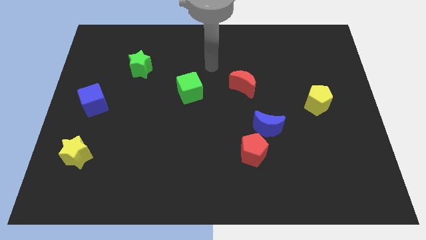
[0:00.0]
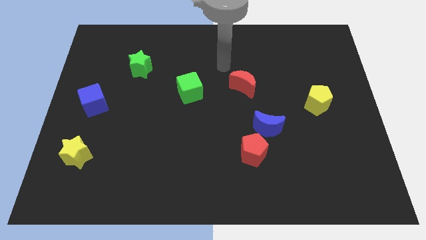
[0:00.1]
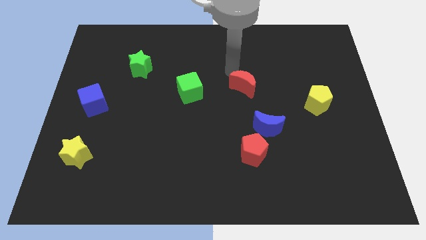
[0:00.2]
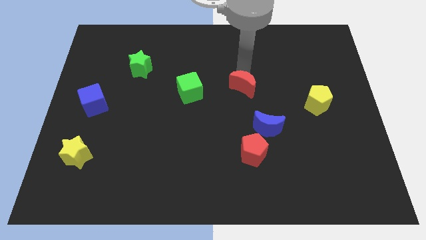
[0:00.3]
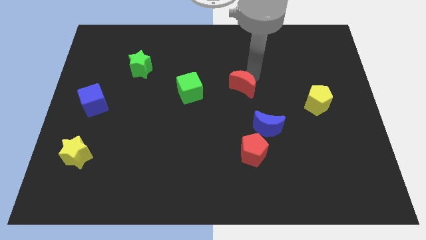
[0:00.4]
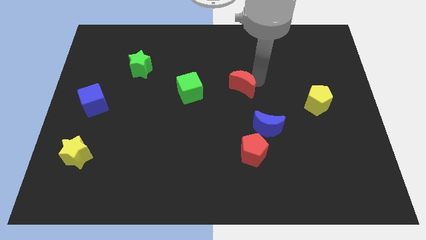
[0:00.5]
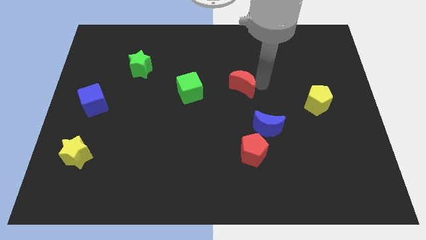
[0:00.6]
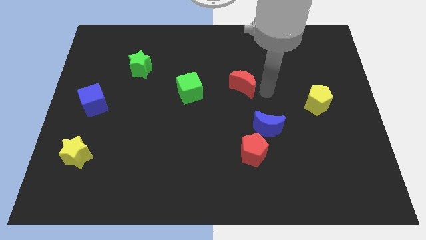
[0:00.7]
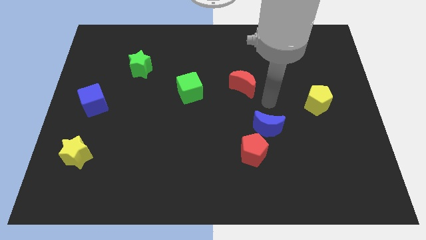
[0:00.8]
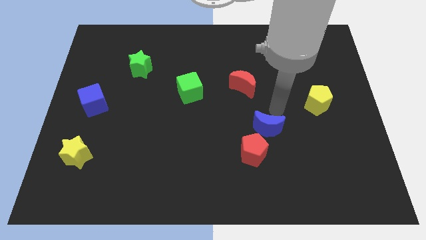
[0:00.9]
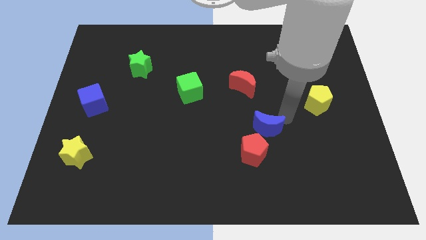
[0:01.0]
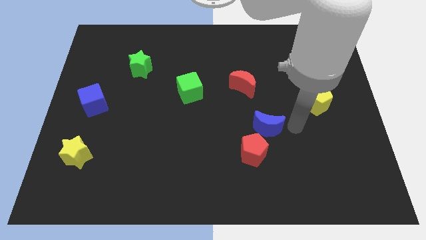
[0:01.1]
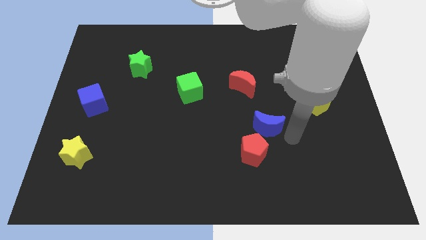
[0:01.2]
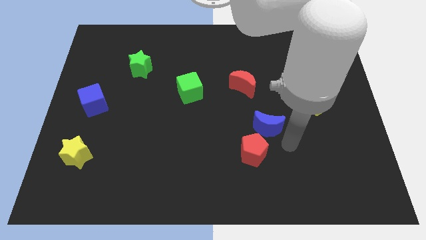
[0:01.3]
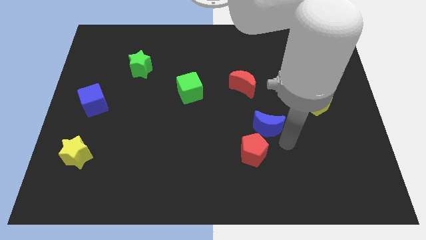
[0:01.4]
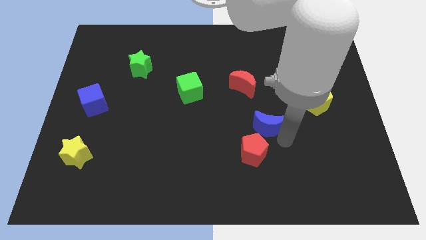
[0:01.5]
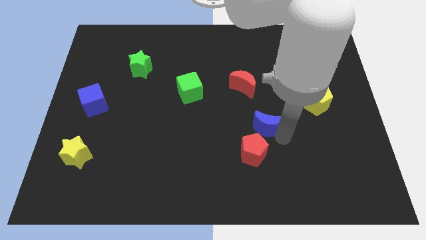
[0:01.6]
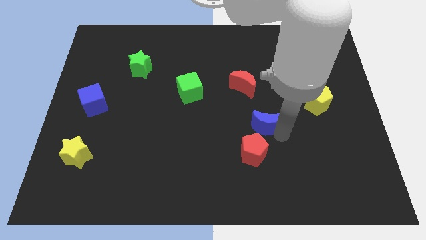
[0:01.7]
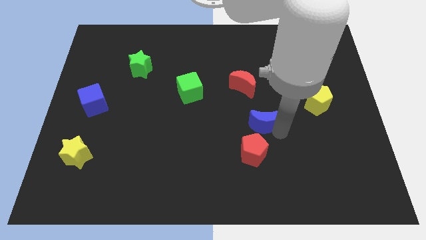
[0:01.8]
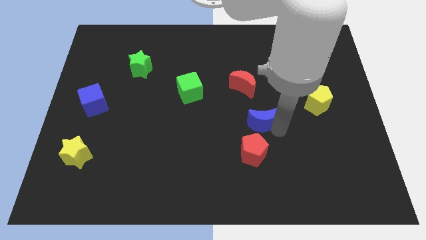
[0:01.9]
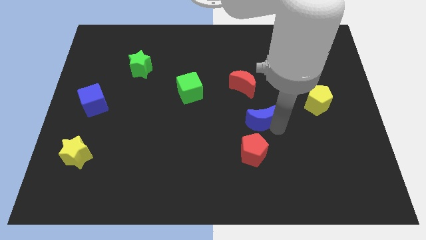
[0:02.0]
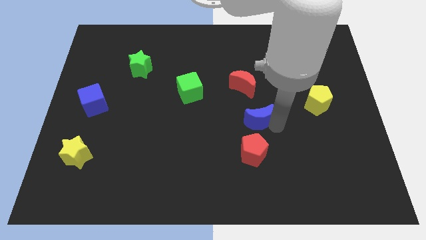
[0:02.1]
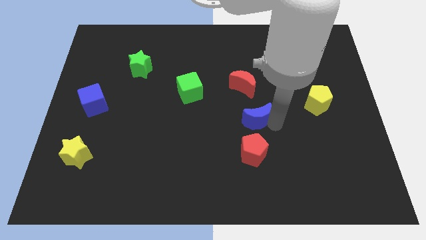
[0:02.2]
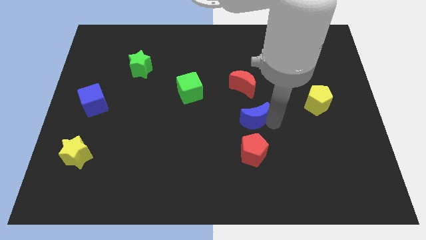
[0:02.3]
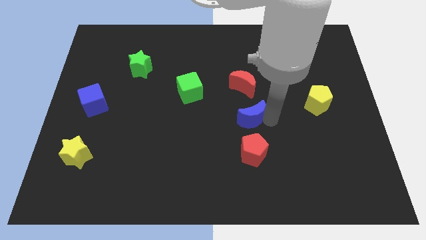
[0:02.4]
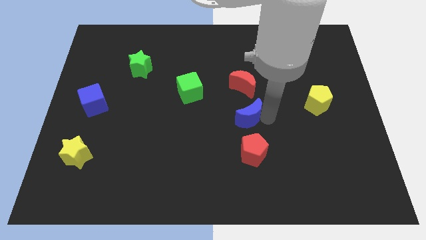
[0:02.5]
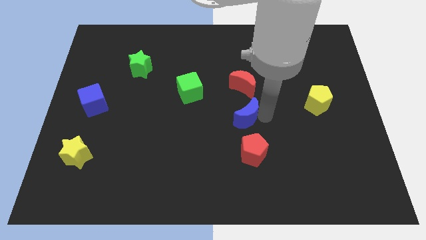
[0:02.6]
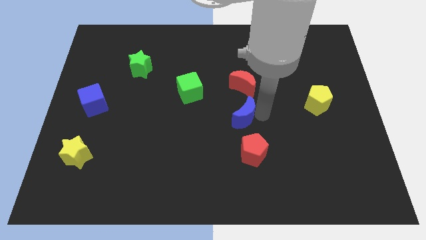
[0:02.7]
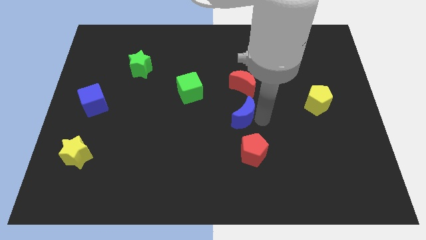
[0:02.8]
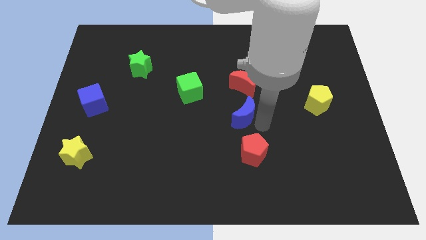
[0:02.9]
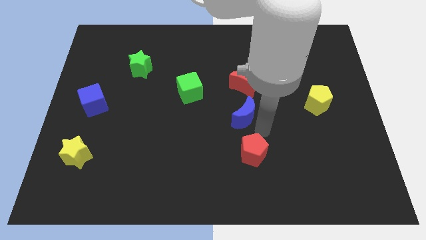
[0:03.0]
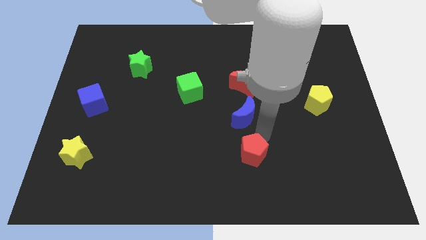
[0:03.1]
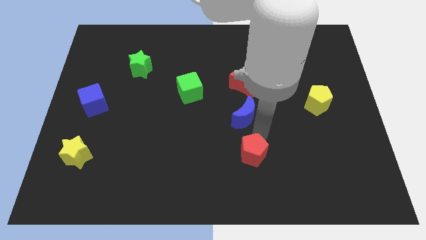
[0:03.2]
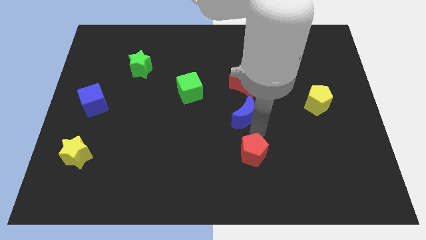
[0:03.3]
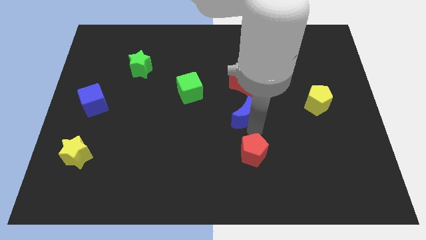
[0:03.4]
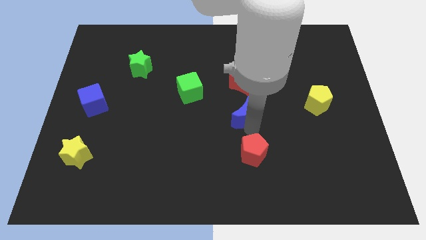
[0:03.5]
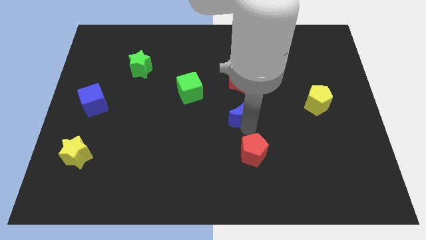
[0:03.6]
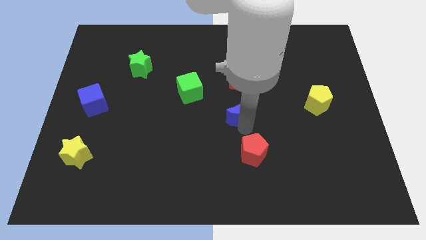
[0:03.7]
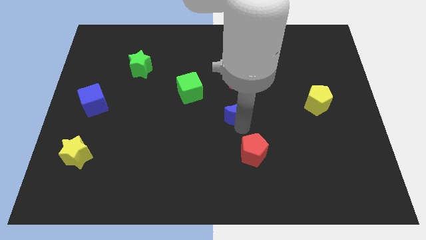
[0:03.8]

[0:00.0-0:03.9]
slightly move the blue moon upwards and left

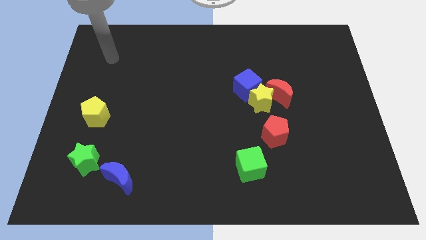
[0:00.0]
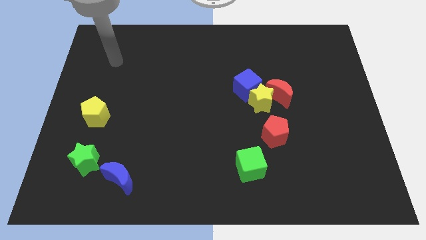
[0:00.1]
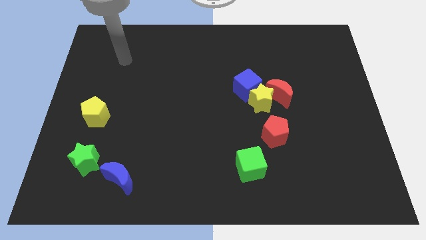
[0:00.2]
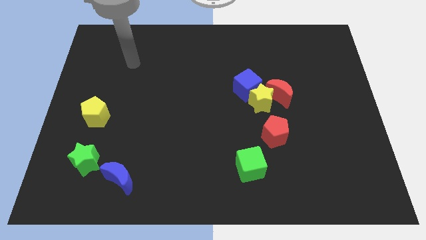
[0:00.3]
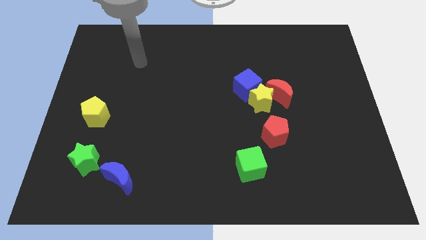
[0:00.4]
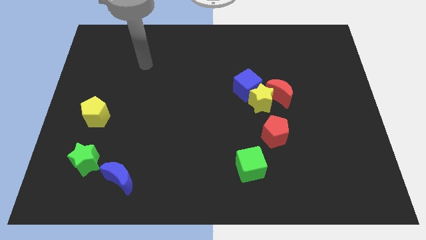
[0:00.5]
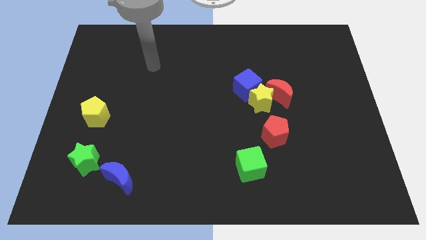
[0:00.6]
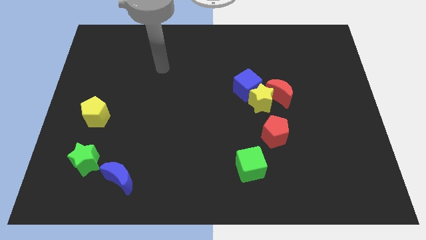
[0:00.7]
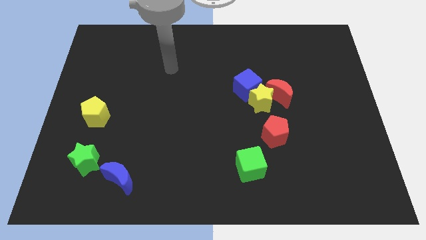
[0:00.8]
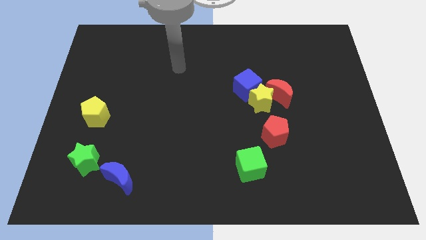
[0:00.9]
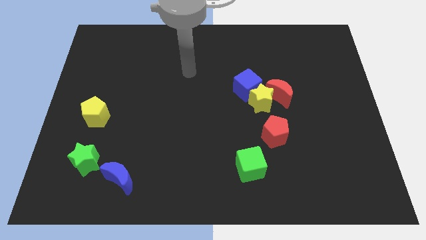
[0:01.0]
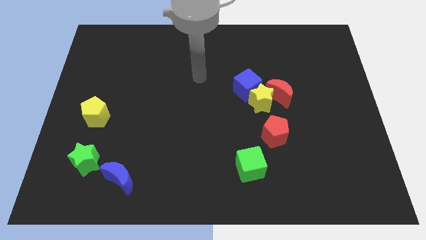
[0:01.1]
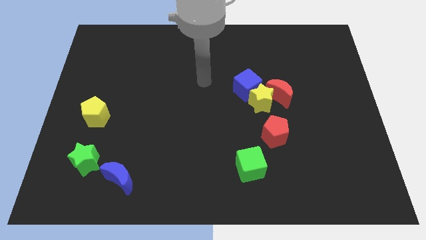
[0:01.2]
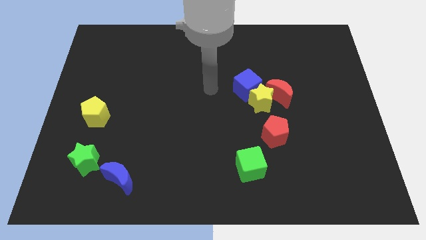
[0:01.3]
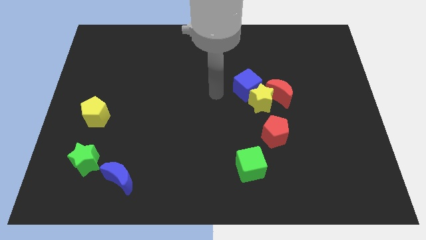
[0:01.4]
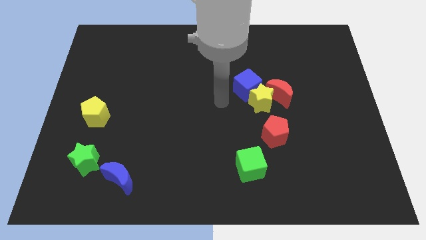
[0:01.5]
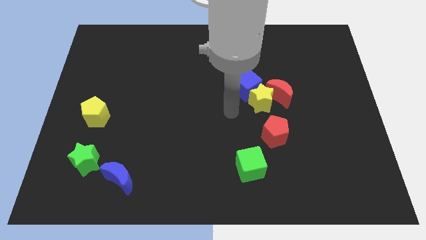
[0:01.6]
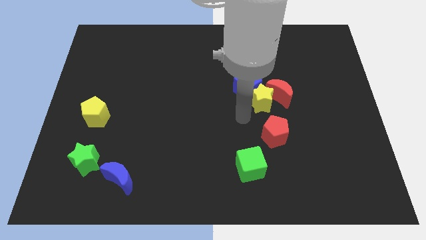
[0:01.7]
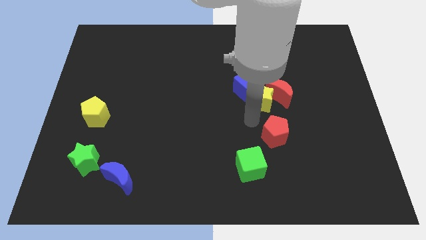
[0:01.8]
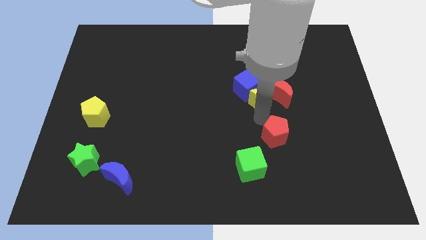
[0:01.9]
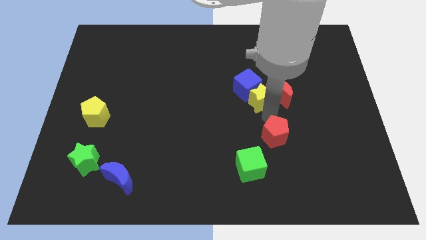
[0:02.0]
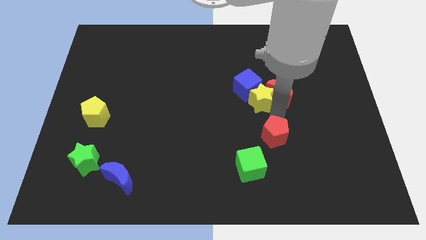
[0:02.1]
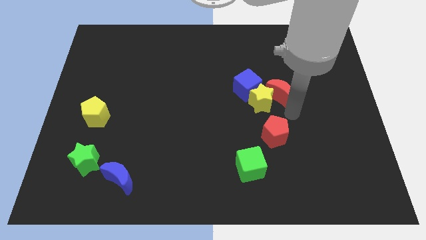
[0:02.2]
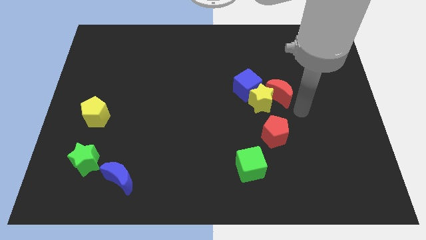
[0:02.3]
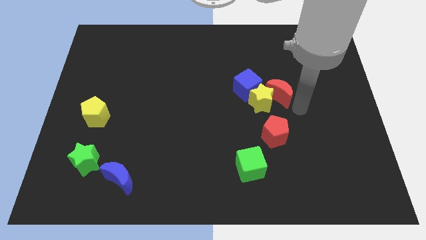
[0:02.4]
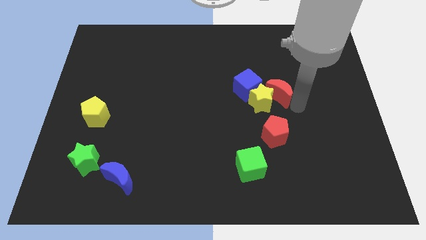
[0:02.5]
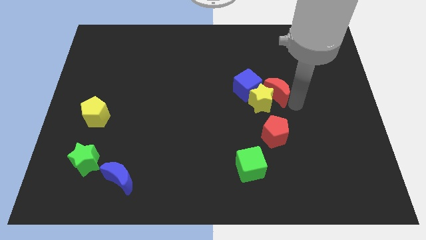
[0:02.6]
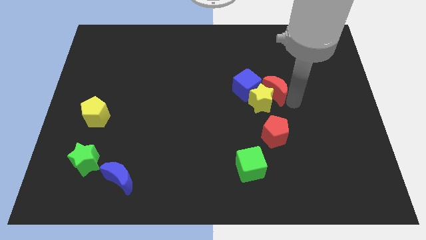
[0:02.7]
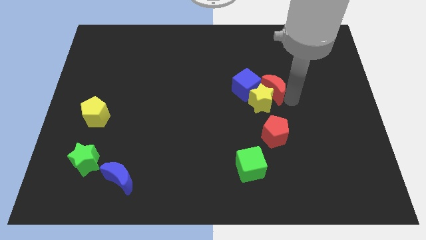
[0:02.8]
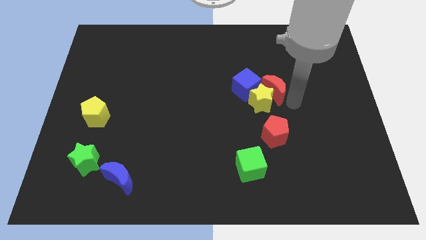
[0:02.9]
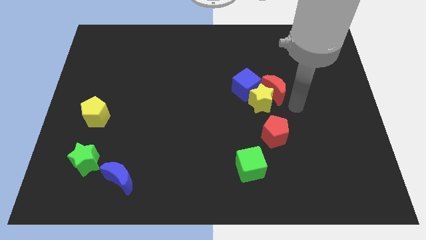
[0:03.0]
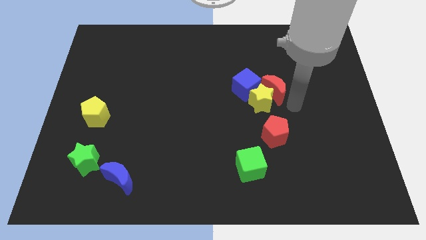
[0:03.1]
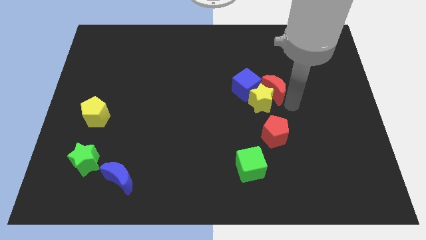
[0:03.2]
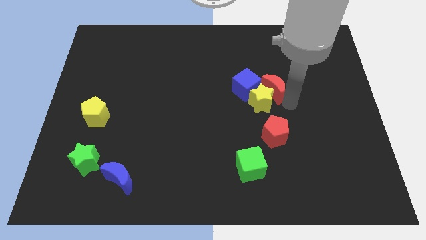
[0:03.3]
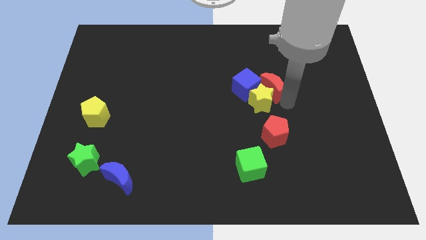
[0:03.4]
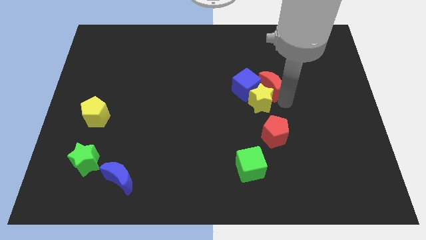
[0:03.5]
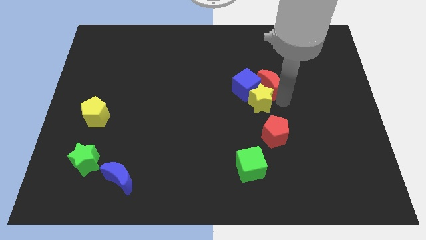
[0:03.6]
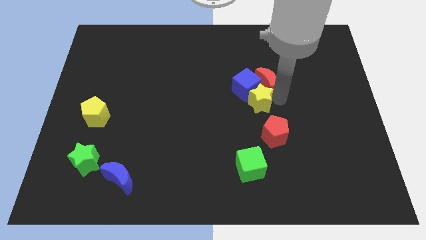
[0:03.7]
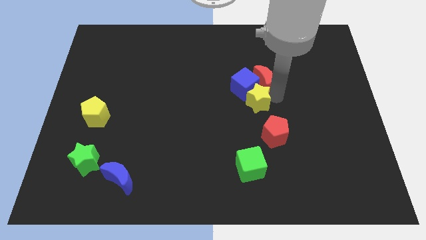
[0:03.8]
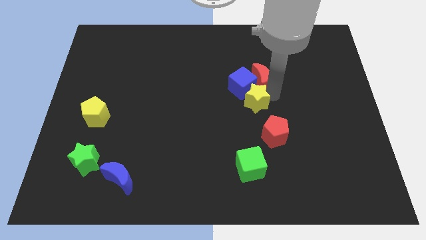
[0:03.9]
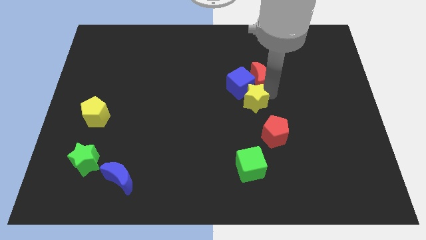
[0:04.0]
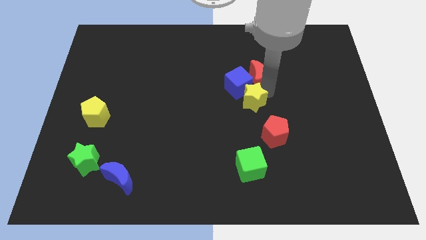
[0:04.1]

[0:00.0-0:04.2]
slightly push the red moon up and left
